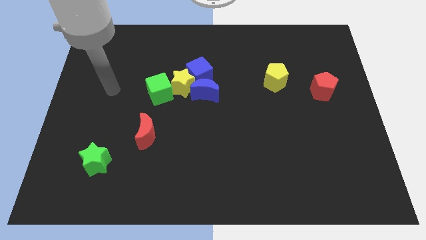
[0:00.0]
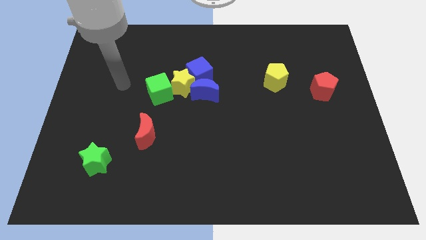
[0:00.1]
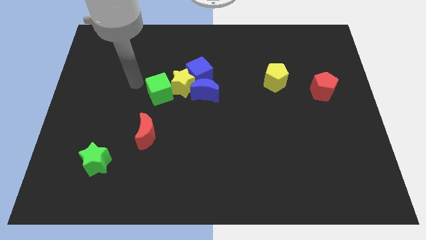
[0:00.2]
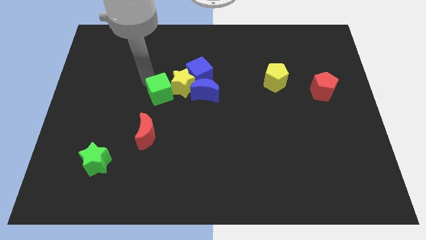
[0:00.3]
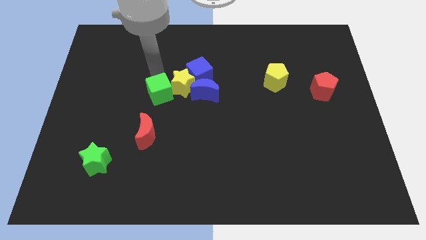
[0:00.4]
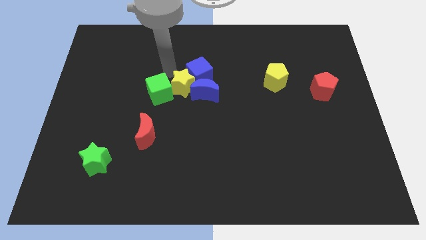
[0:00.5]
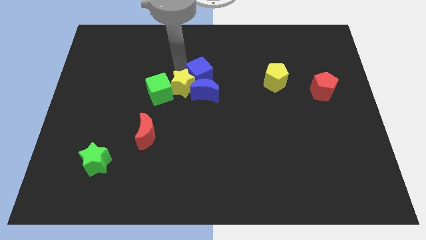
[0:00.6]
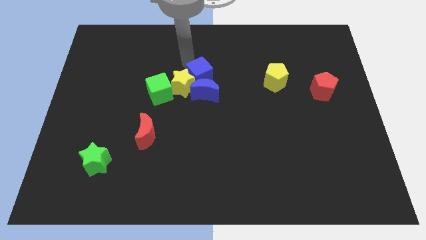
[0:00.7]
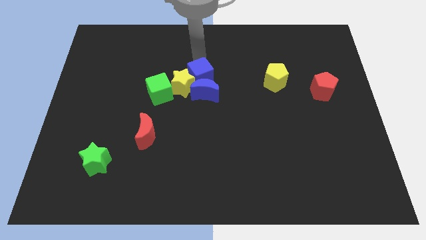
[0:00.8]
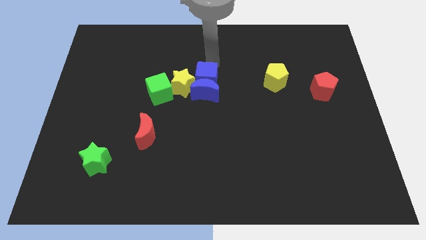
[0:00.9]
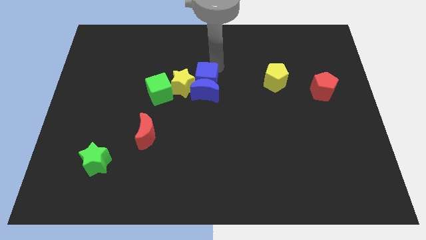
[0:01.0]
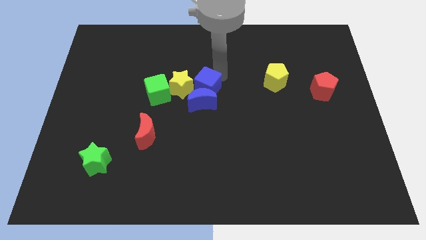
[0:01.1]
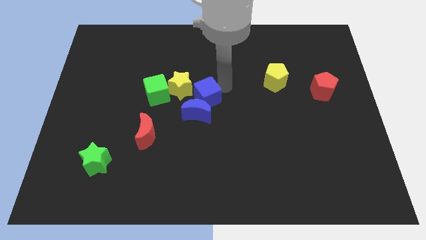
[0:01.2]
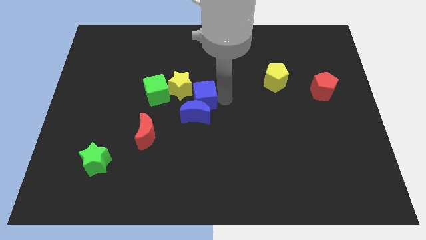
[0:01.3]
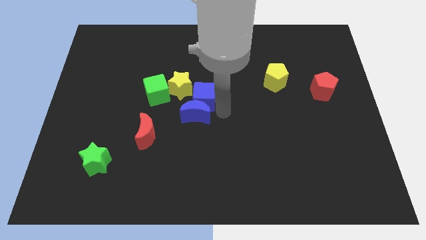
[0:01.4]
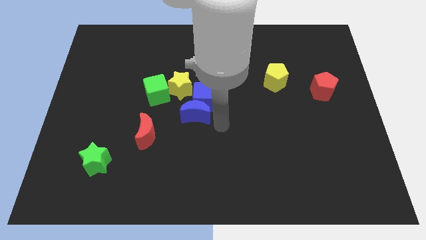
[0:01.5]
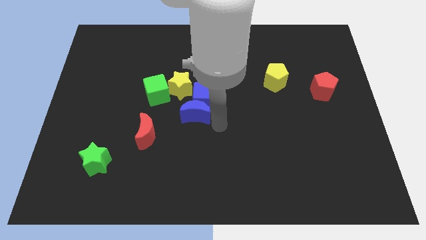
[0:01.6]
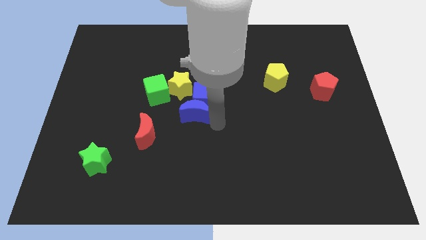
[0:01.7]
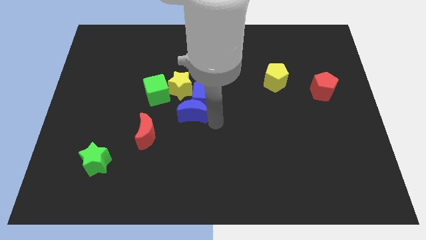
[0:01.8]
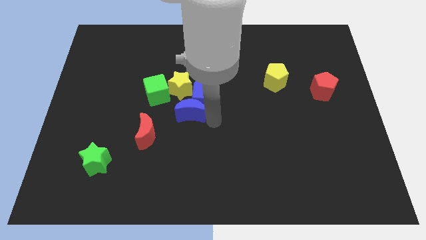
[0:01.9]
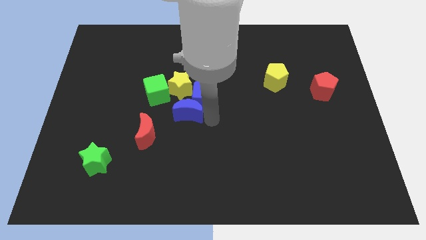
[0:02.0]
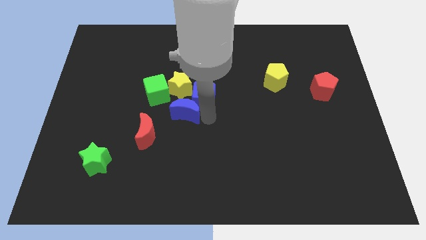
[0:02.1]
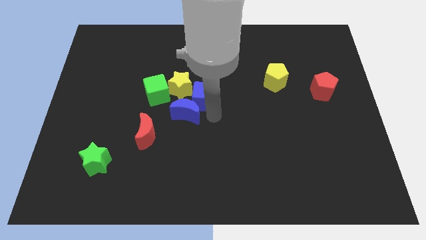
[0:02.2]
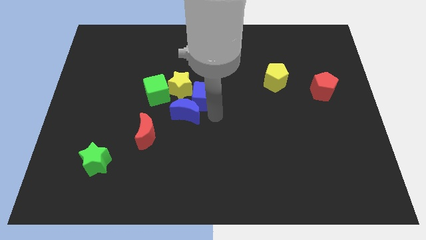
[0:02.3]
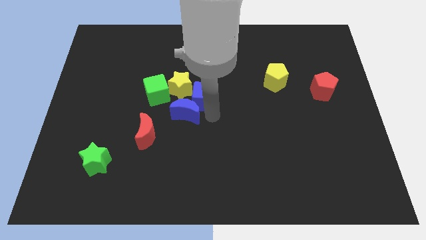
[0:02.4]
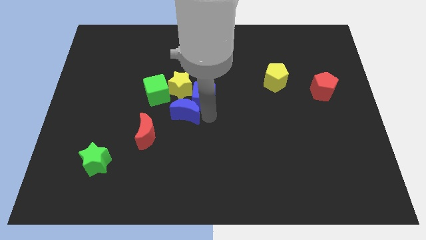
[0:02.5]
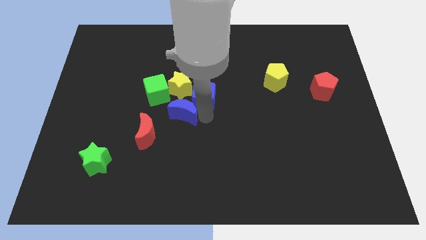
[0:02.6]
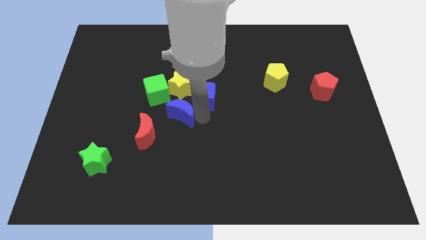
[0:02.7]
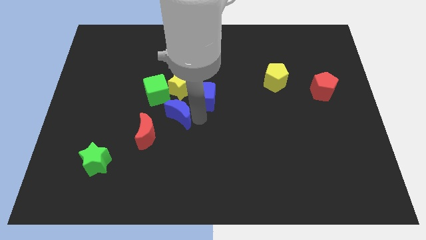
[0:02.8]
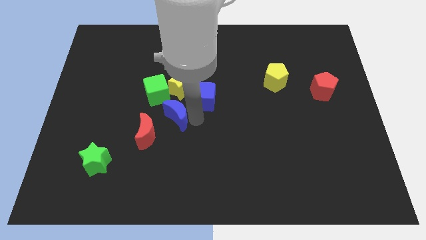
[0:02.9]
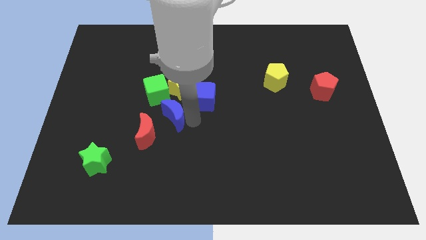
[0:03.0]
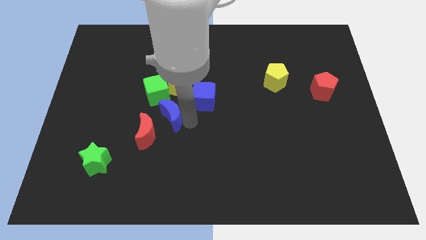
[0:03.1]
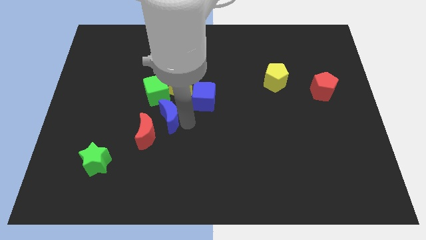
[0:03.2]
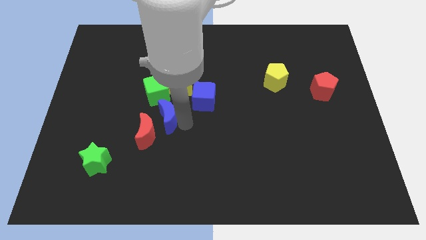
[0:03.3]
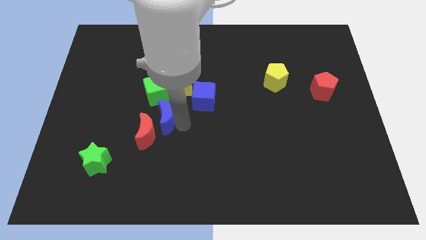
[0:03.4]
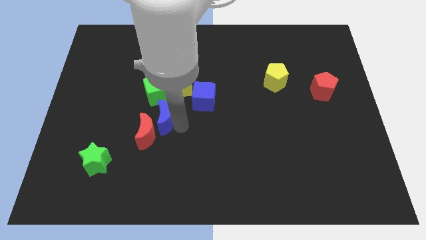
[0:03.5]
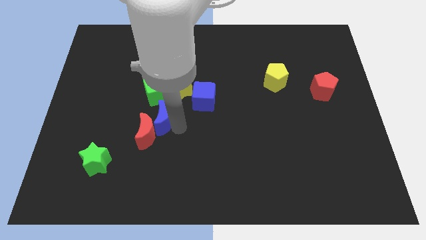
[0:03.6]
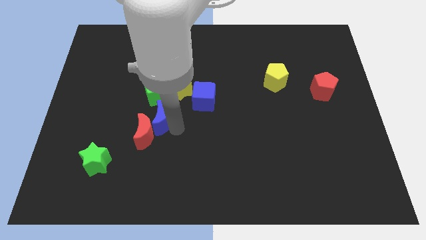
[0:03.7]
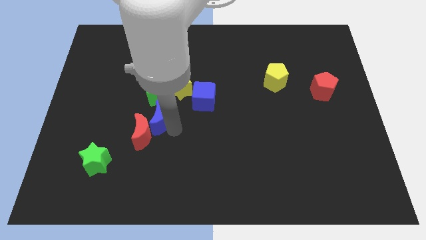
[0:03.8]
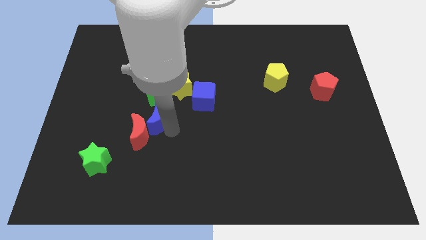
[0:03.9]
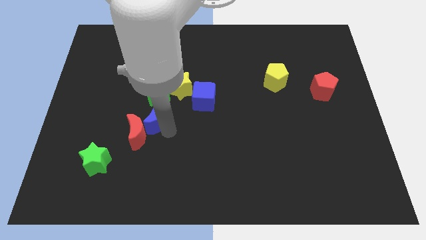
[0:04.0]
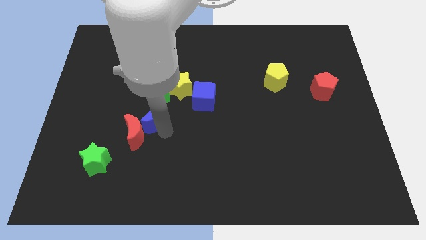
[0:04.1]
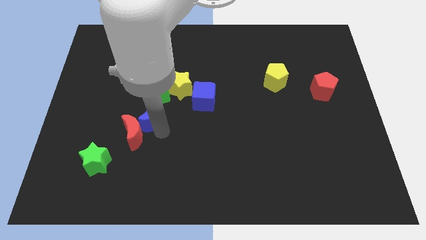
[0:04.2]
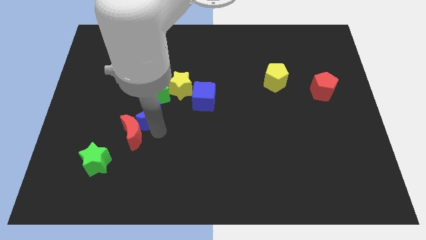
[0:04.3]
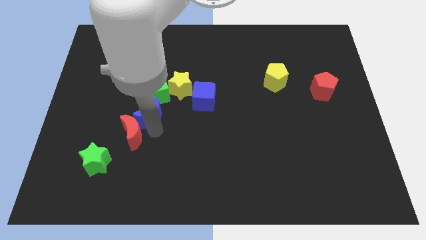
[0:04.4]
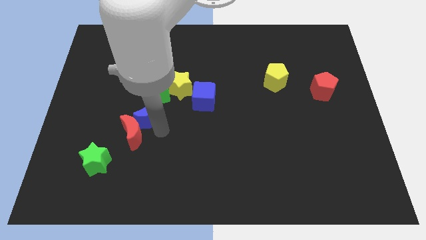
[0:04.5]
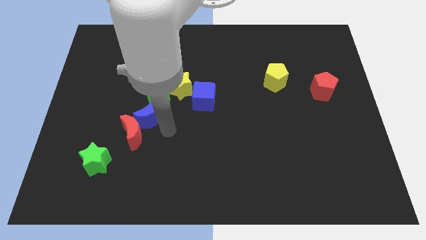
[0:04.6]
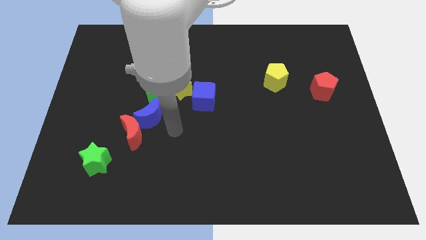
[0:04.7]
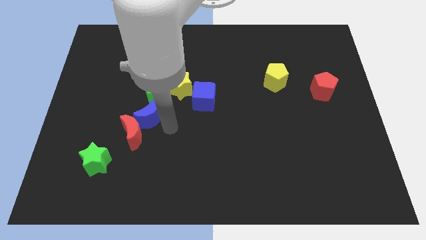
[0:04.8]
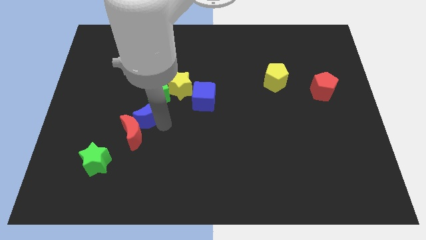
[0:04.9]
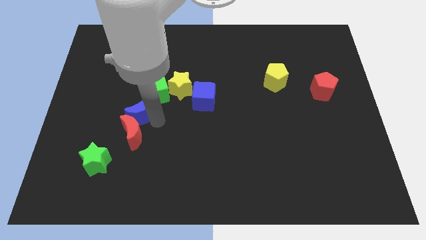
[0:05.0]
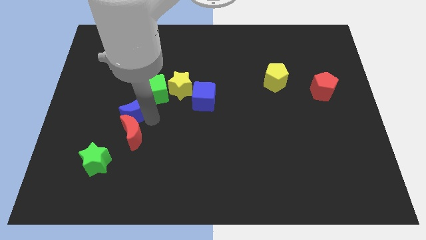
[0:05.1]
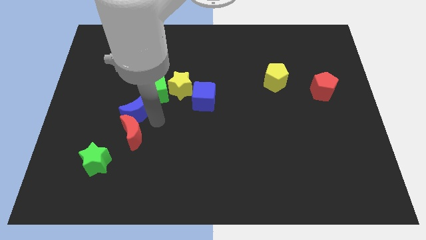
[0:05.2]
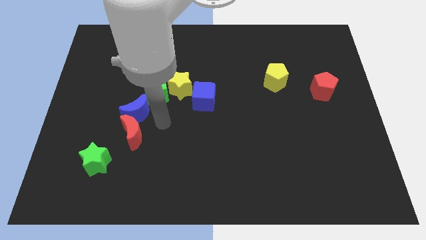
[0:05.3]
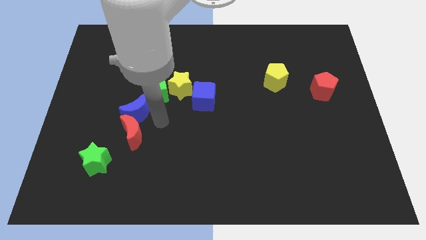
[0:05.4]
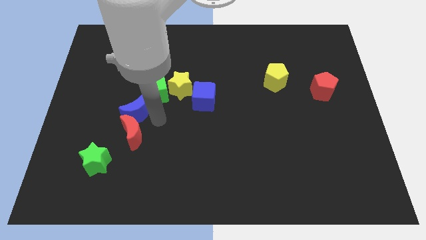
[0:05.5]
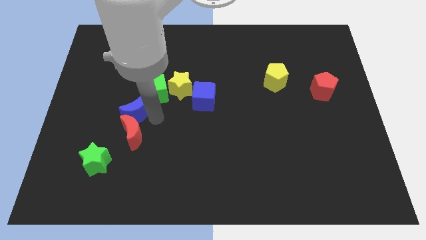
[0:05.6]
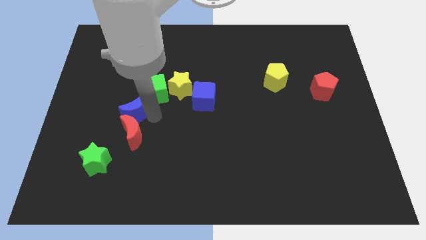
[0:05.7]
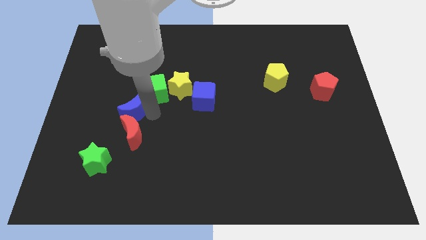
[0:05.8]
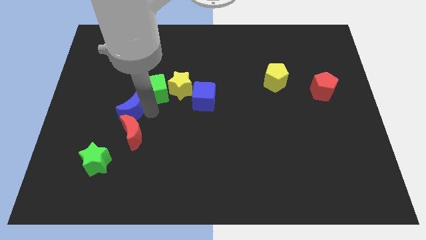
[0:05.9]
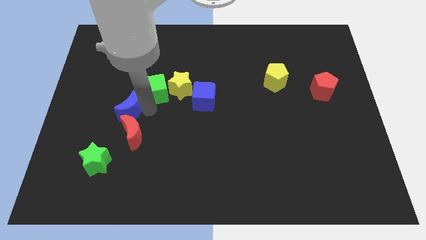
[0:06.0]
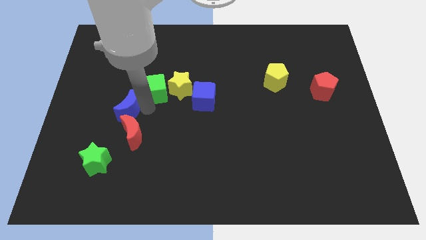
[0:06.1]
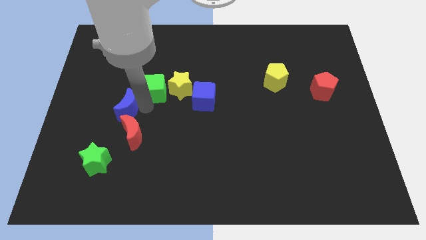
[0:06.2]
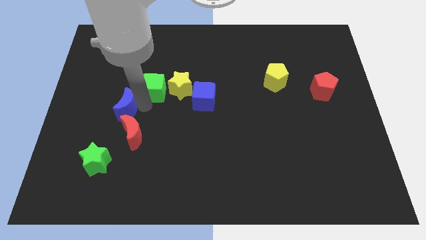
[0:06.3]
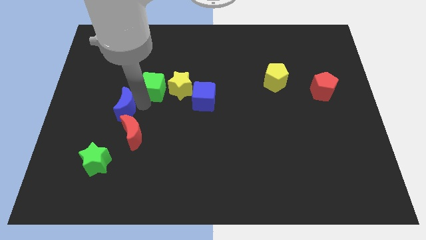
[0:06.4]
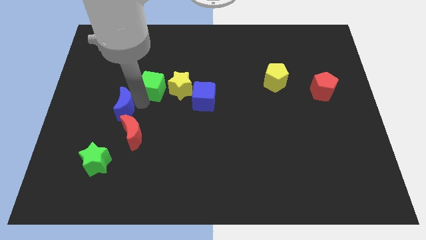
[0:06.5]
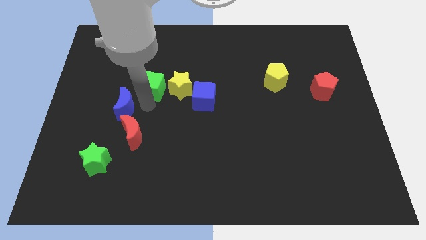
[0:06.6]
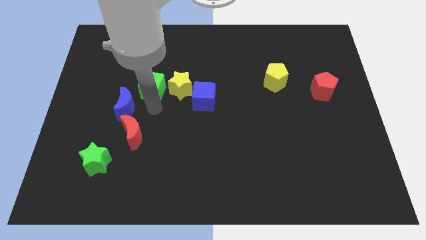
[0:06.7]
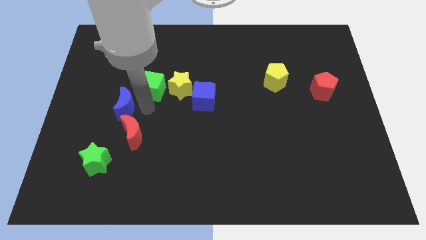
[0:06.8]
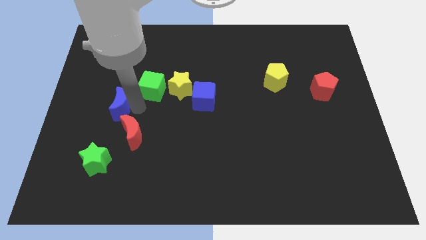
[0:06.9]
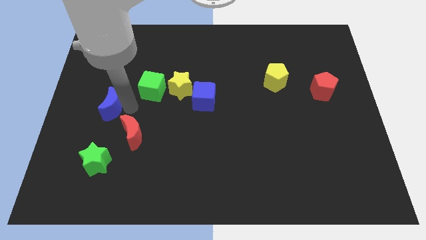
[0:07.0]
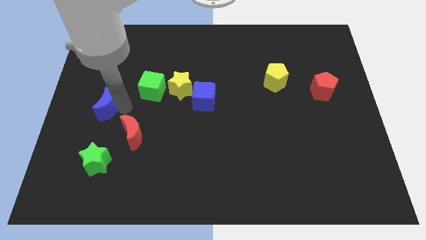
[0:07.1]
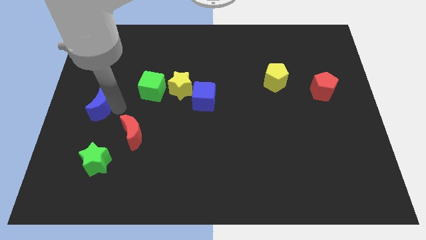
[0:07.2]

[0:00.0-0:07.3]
push the blue moon to the left side of the board

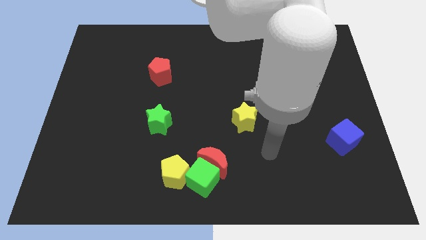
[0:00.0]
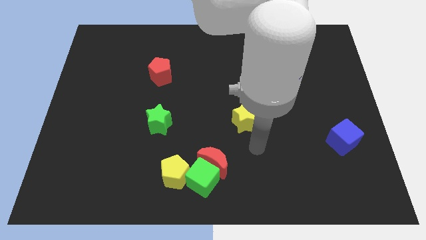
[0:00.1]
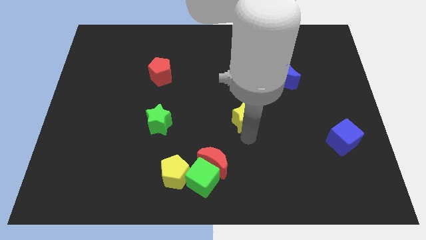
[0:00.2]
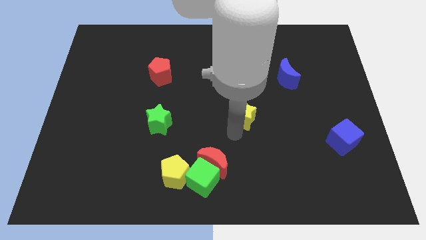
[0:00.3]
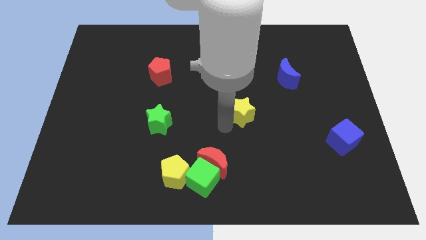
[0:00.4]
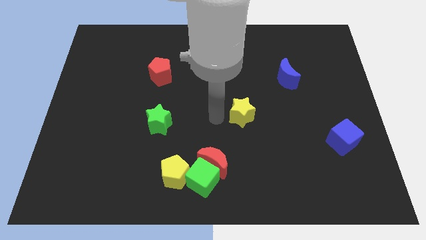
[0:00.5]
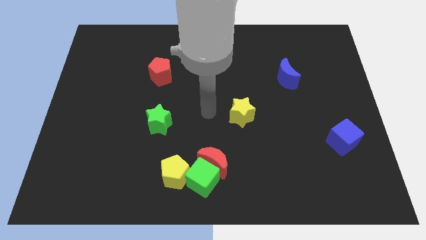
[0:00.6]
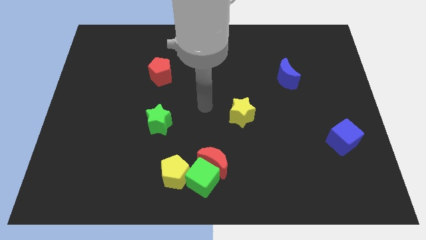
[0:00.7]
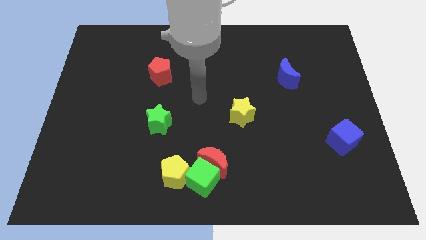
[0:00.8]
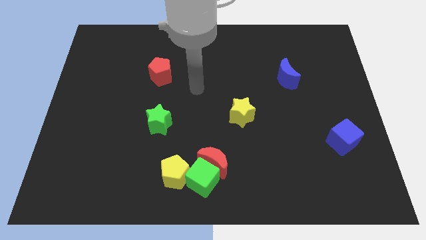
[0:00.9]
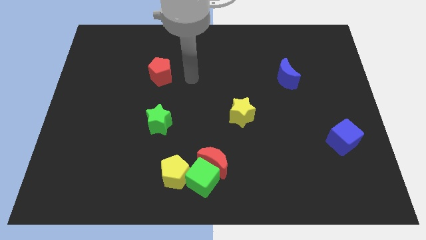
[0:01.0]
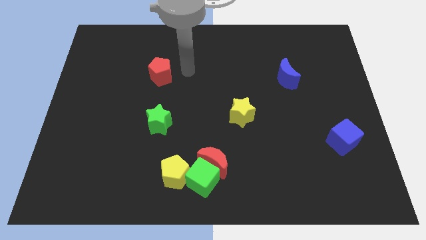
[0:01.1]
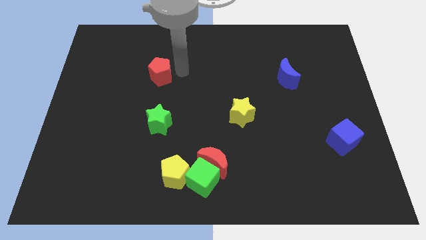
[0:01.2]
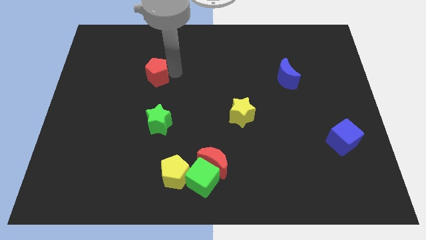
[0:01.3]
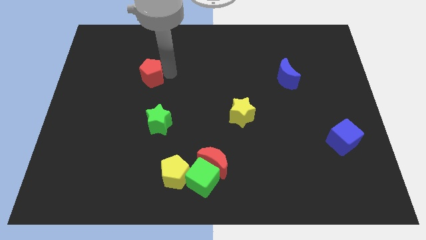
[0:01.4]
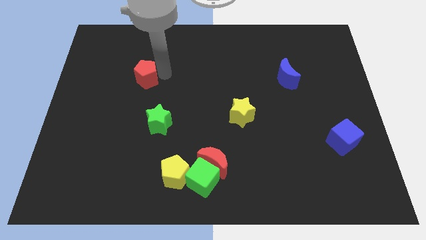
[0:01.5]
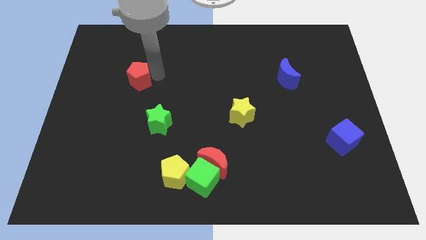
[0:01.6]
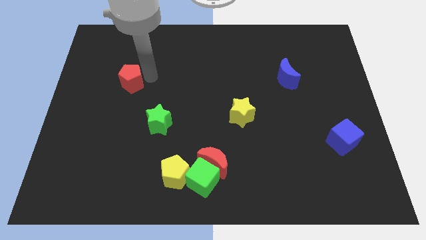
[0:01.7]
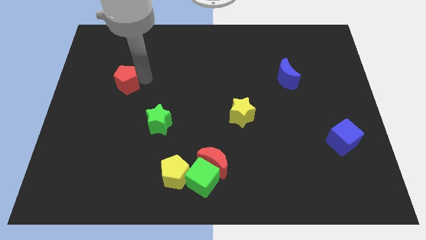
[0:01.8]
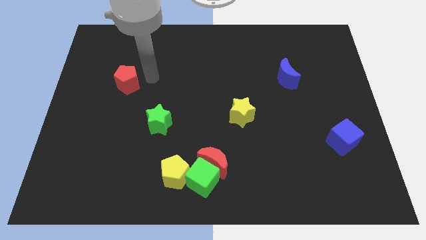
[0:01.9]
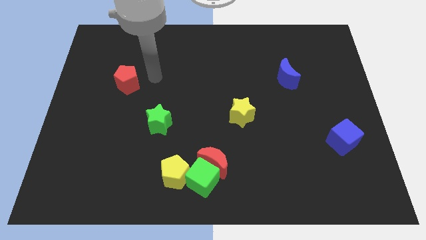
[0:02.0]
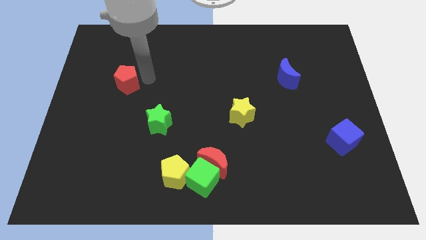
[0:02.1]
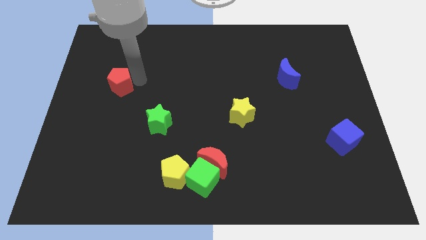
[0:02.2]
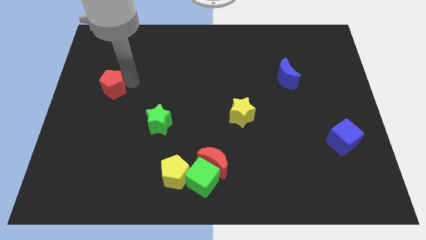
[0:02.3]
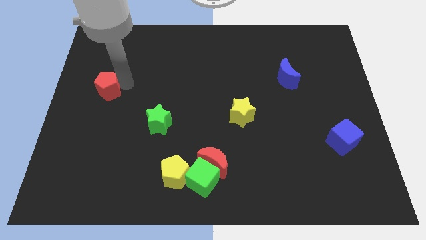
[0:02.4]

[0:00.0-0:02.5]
slide the red pentagon to the left side of the board
